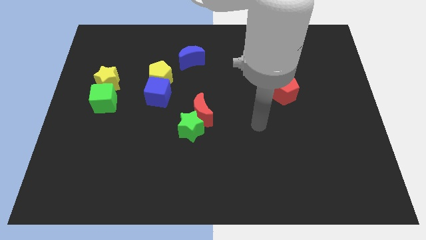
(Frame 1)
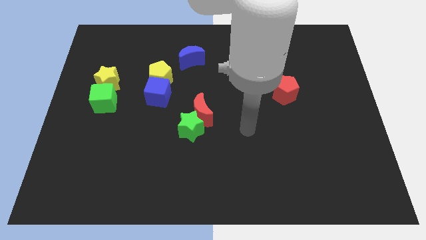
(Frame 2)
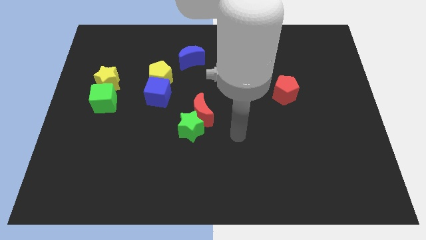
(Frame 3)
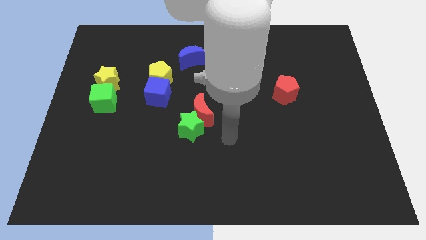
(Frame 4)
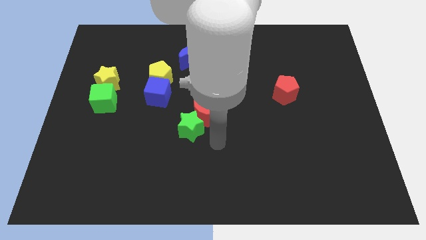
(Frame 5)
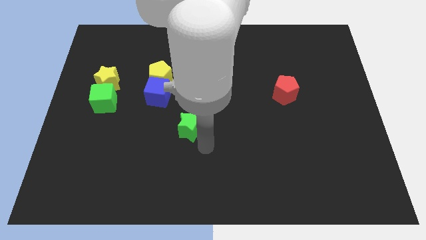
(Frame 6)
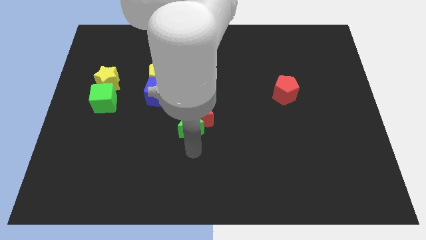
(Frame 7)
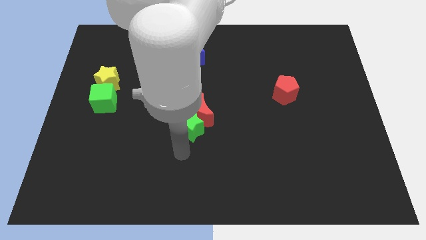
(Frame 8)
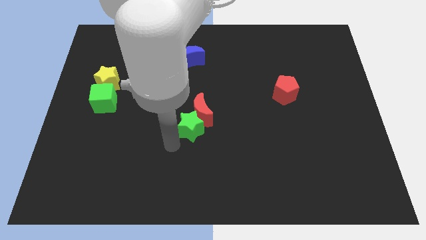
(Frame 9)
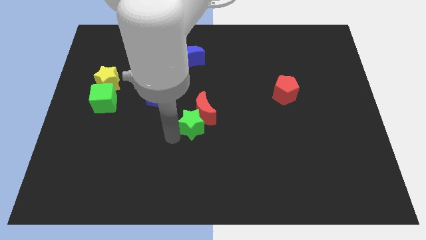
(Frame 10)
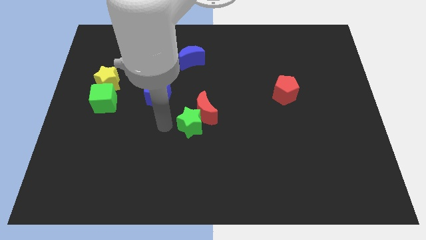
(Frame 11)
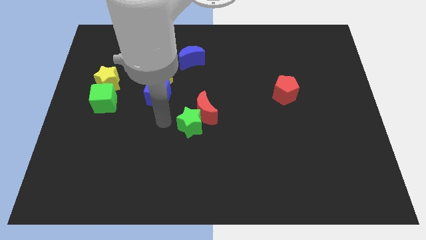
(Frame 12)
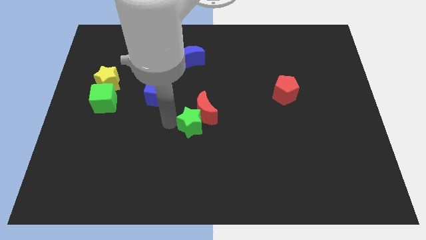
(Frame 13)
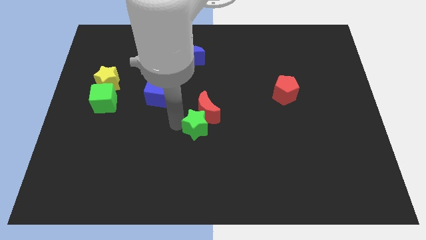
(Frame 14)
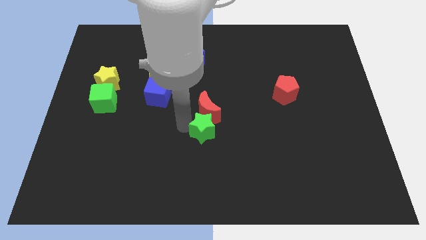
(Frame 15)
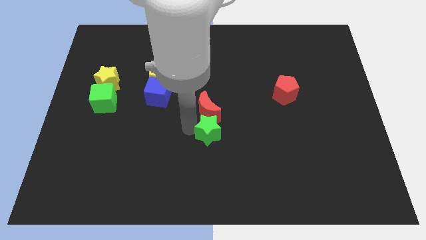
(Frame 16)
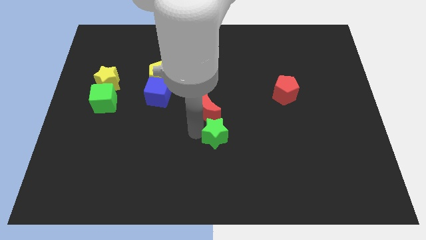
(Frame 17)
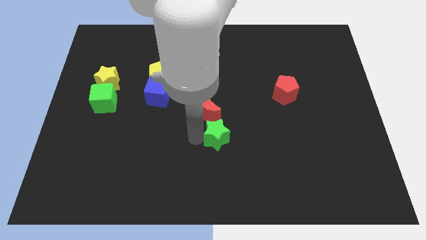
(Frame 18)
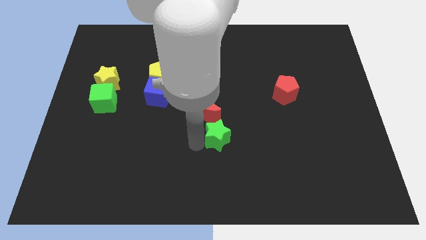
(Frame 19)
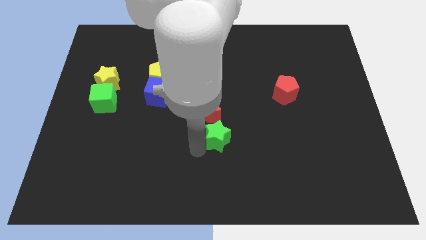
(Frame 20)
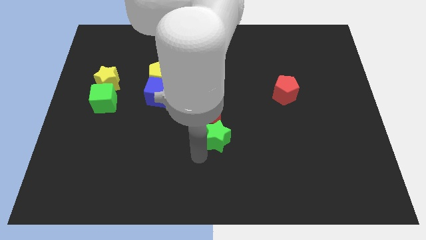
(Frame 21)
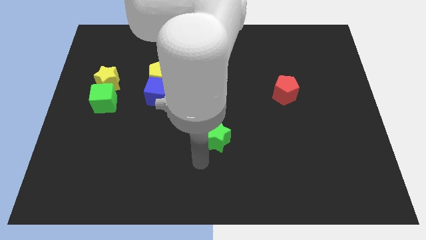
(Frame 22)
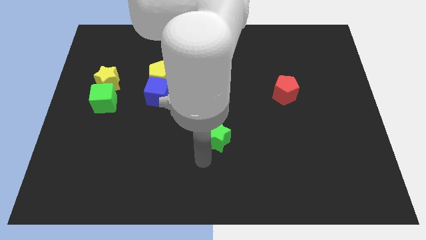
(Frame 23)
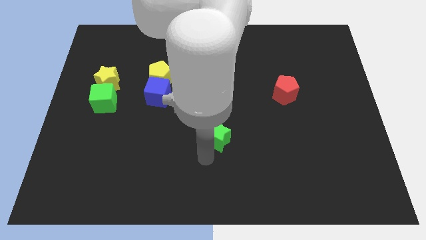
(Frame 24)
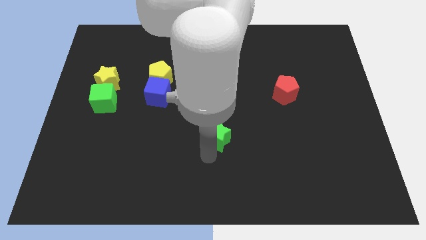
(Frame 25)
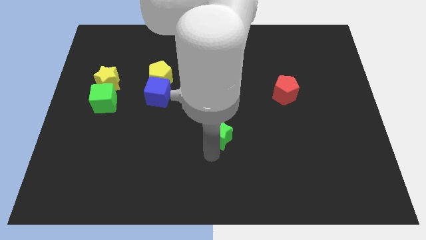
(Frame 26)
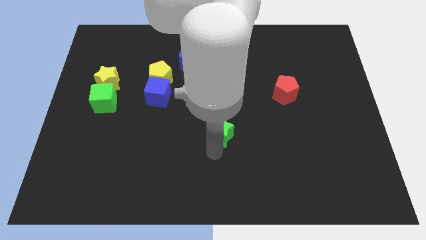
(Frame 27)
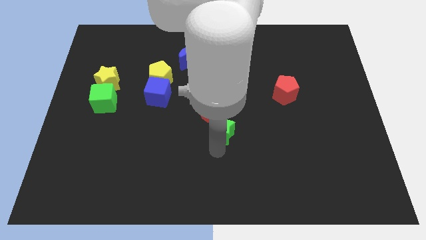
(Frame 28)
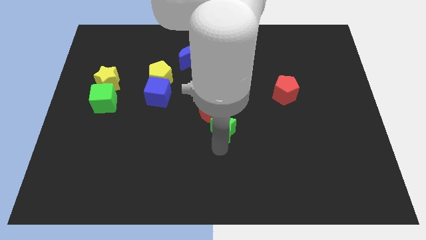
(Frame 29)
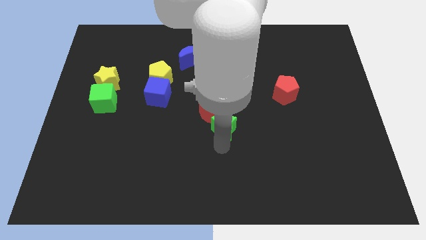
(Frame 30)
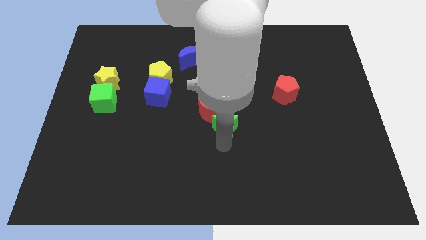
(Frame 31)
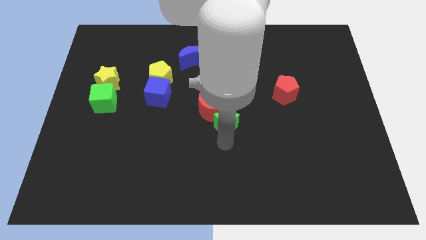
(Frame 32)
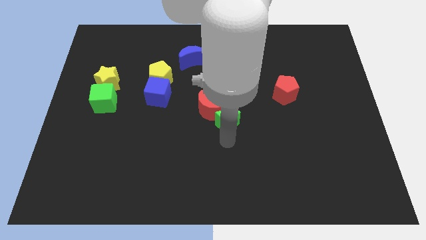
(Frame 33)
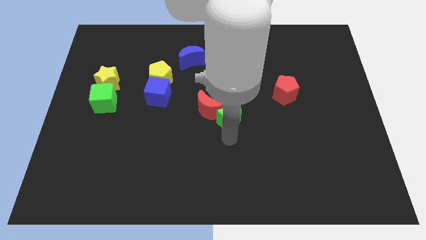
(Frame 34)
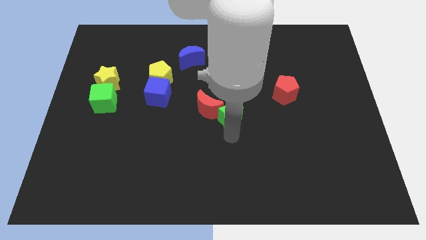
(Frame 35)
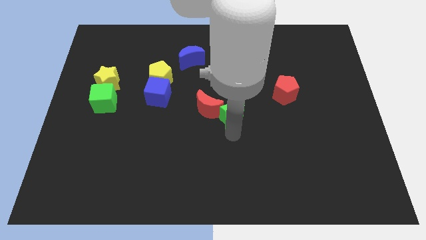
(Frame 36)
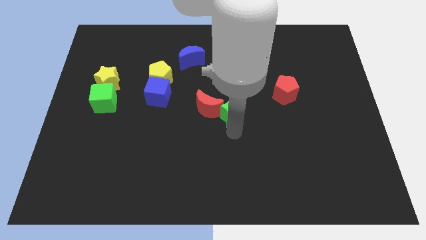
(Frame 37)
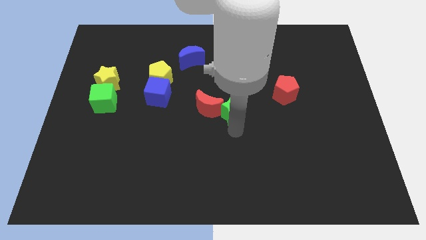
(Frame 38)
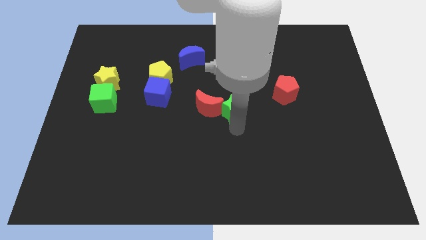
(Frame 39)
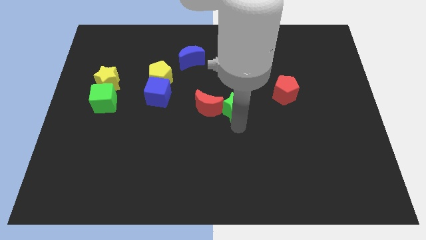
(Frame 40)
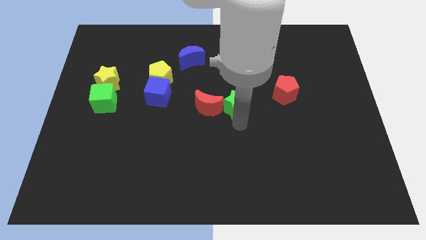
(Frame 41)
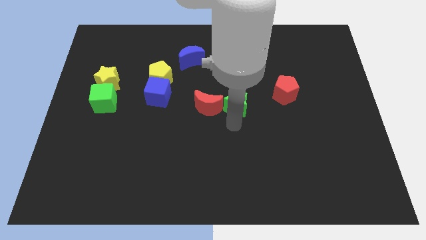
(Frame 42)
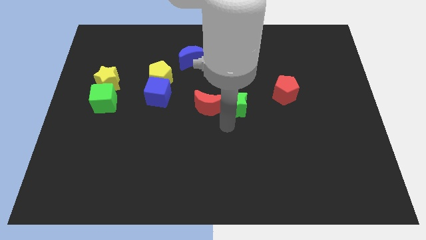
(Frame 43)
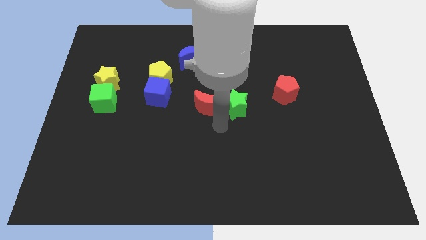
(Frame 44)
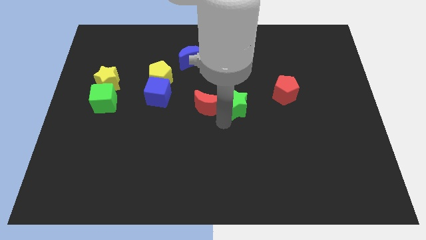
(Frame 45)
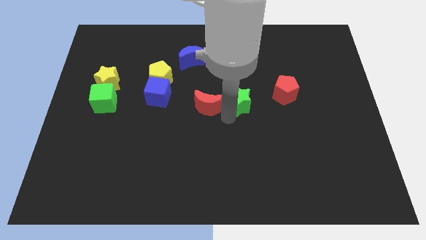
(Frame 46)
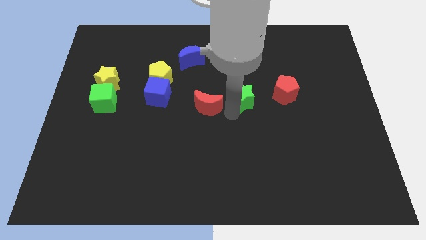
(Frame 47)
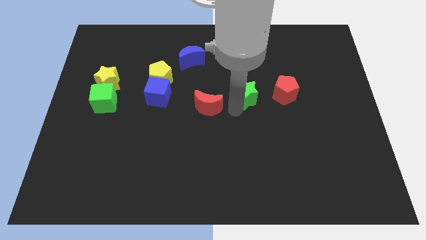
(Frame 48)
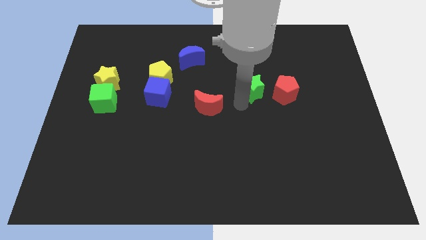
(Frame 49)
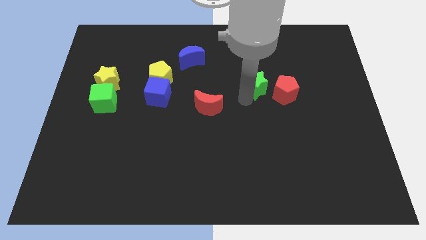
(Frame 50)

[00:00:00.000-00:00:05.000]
move the green star upwards and right diagonally

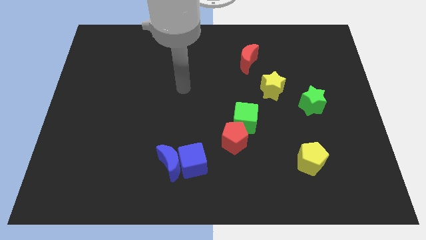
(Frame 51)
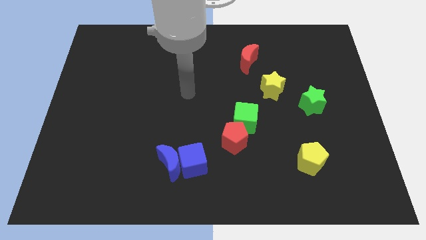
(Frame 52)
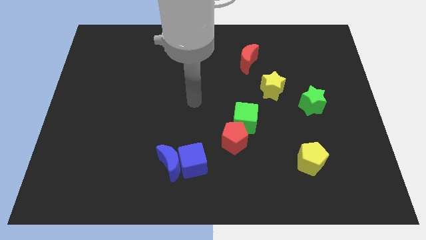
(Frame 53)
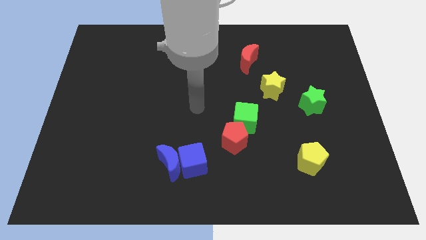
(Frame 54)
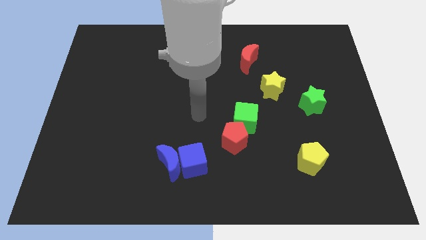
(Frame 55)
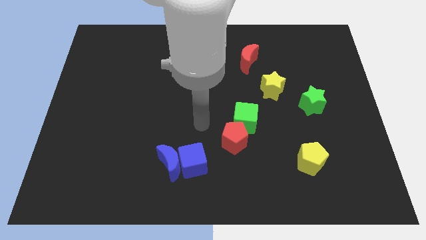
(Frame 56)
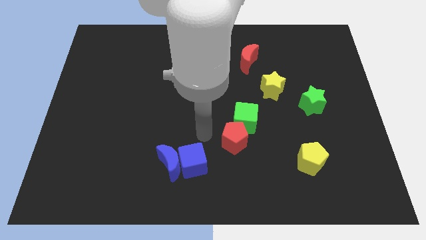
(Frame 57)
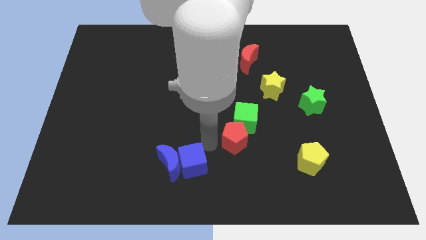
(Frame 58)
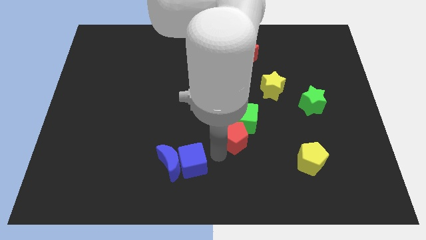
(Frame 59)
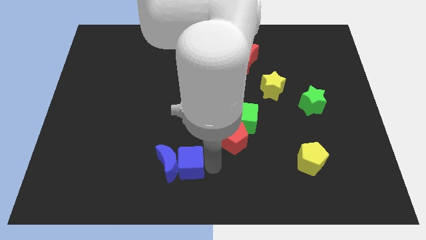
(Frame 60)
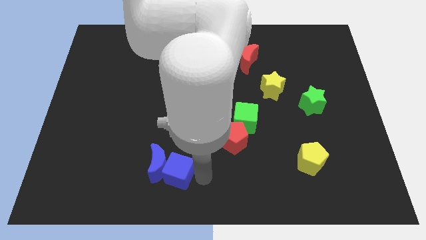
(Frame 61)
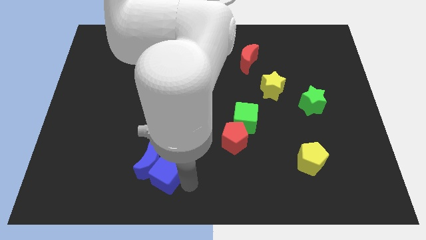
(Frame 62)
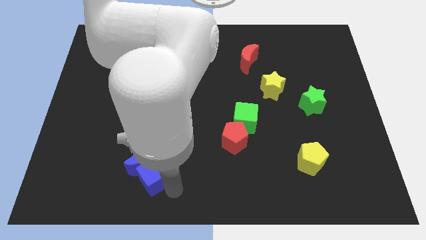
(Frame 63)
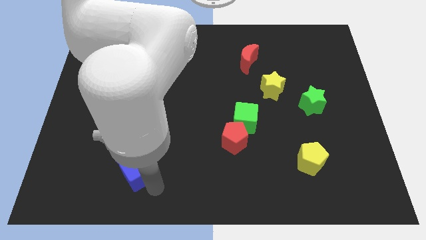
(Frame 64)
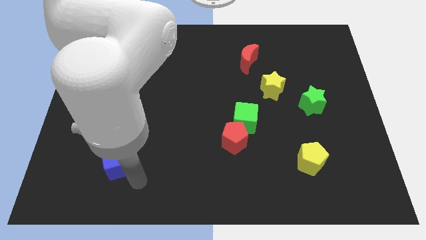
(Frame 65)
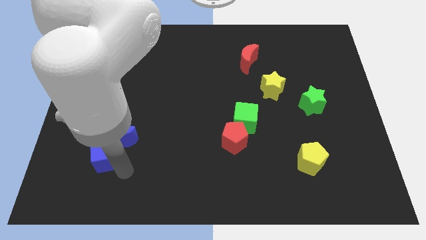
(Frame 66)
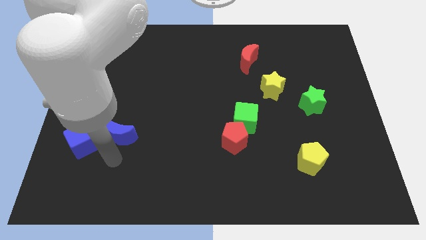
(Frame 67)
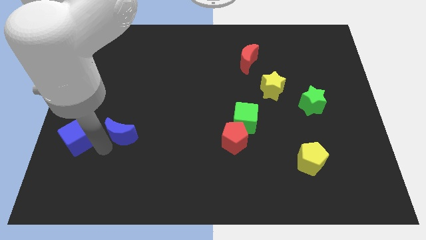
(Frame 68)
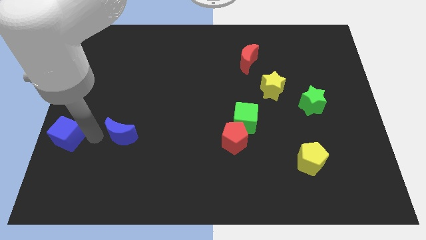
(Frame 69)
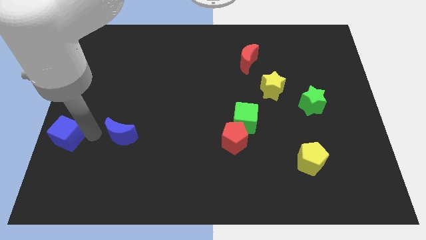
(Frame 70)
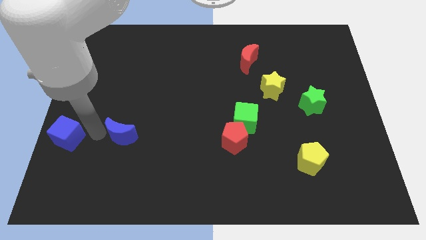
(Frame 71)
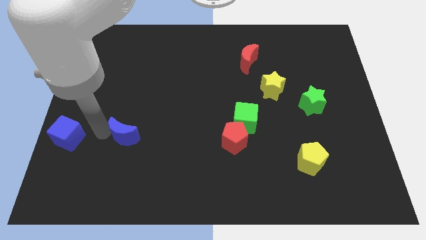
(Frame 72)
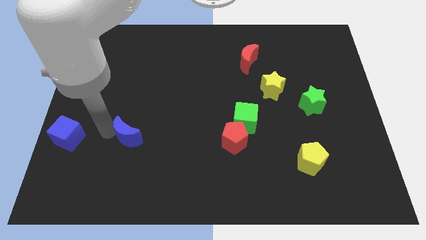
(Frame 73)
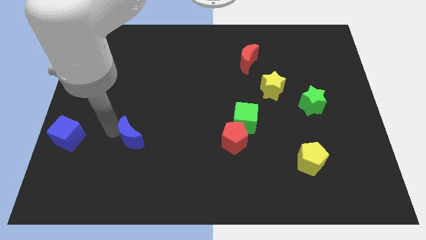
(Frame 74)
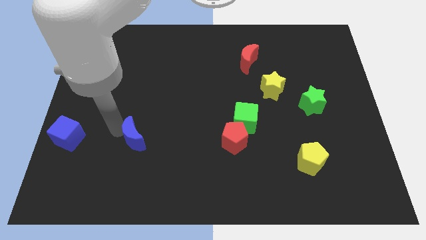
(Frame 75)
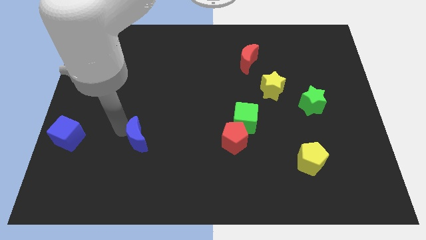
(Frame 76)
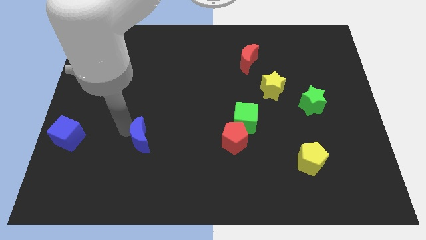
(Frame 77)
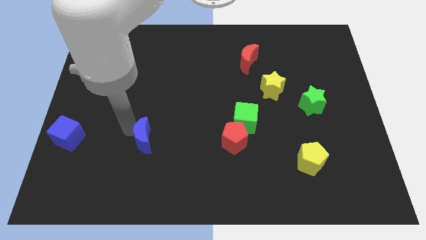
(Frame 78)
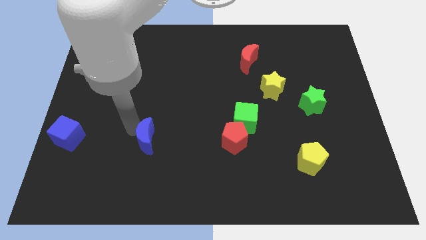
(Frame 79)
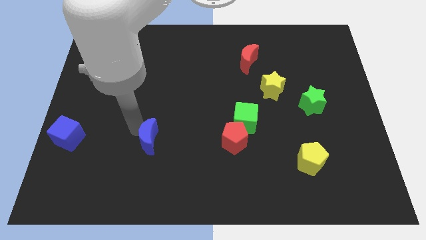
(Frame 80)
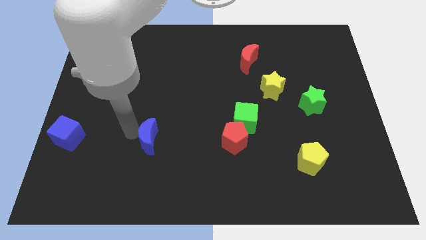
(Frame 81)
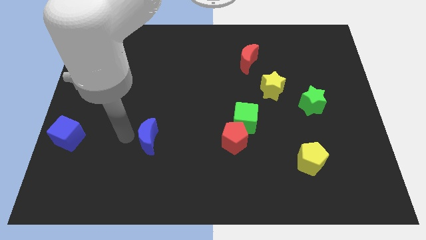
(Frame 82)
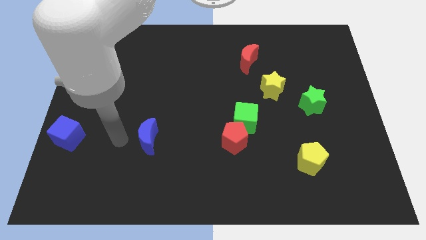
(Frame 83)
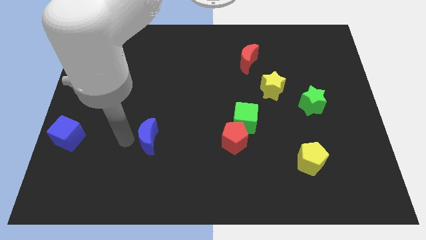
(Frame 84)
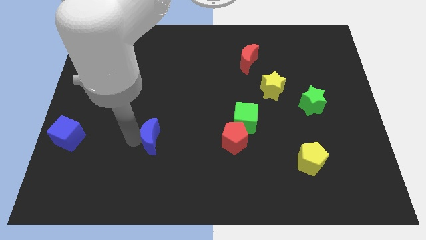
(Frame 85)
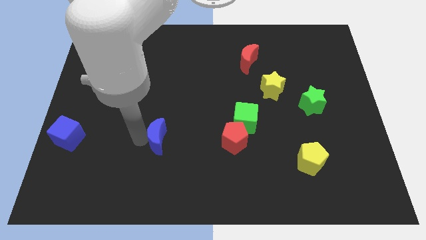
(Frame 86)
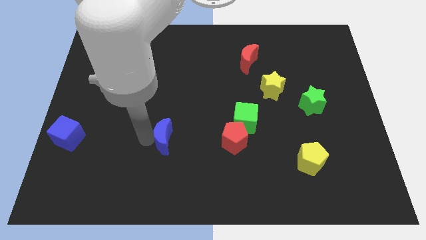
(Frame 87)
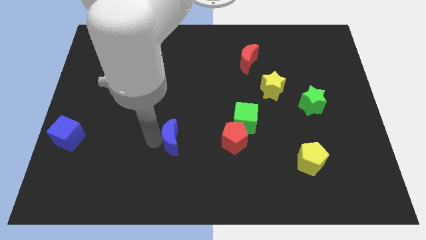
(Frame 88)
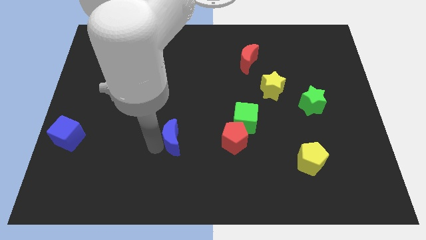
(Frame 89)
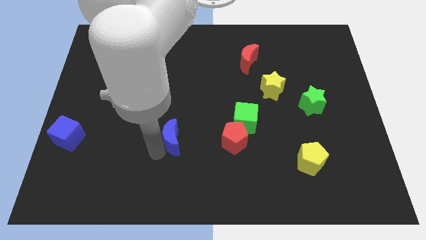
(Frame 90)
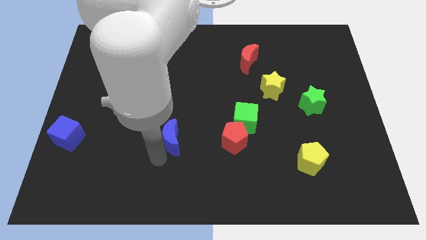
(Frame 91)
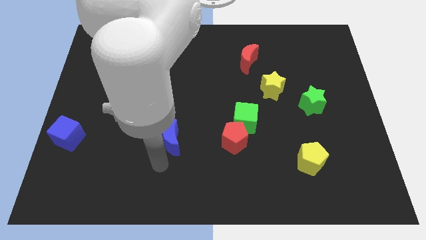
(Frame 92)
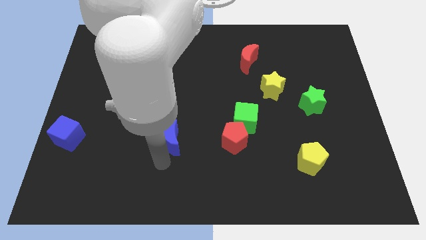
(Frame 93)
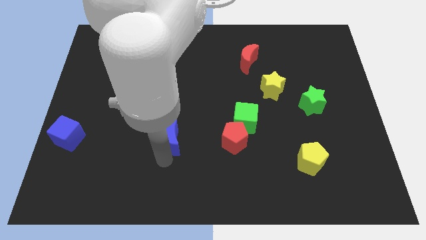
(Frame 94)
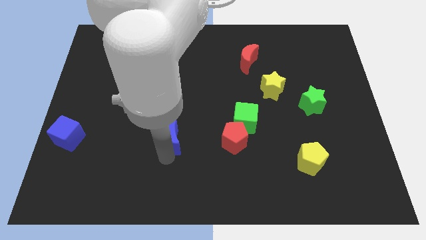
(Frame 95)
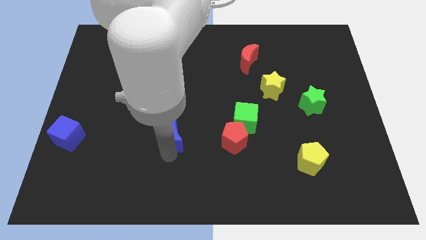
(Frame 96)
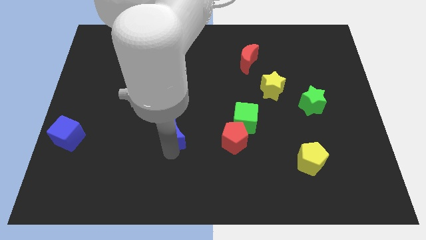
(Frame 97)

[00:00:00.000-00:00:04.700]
push the blue moon a bit up
